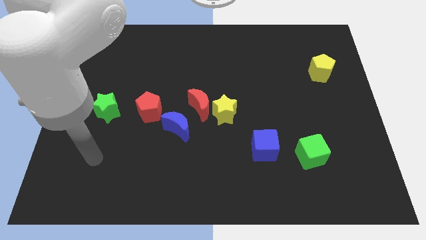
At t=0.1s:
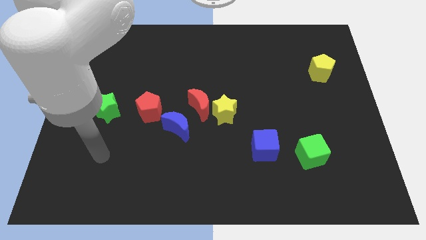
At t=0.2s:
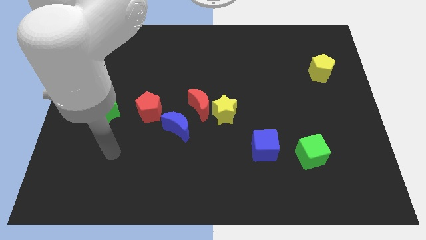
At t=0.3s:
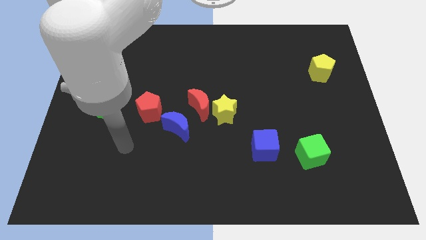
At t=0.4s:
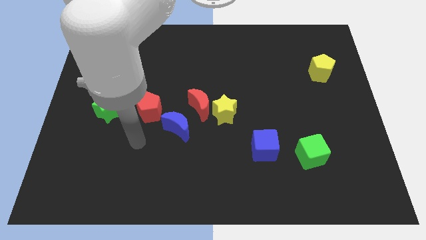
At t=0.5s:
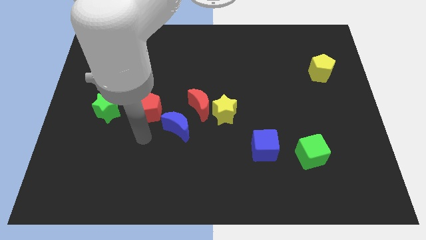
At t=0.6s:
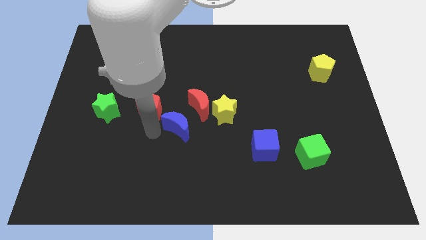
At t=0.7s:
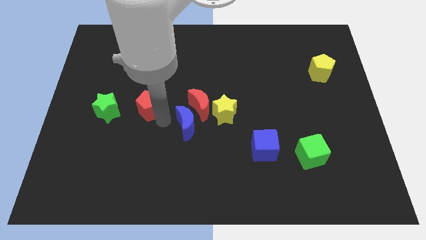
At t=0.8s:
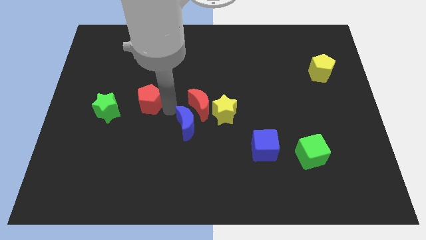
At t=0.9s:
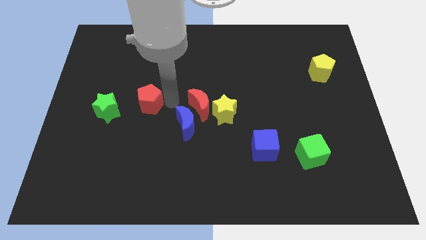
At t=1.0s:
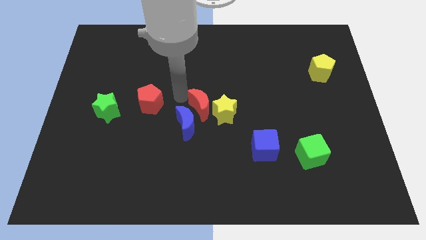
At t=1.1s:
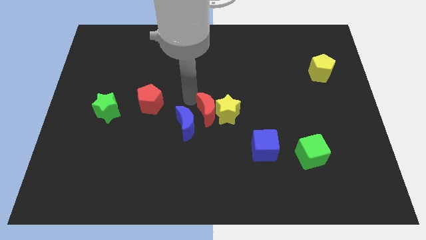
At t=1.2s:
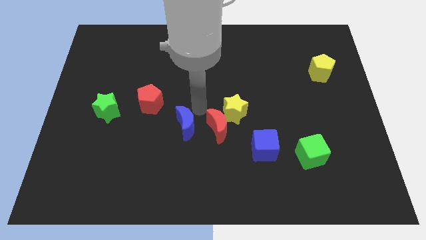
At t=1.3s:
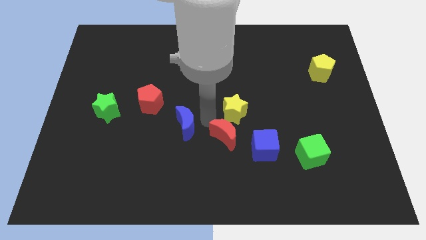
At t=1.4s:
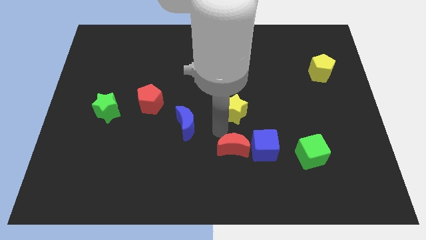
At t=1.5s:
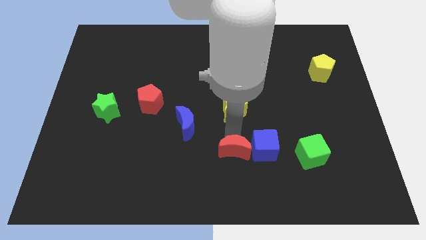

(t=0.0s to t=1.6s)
pull the yellow star apart from the red moon

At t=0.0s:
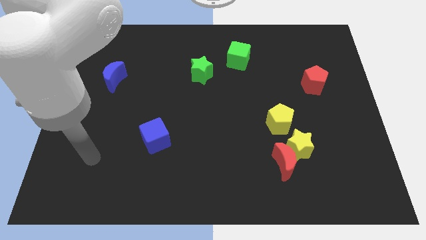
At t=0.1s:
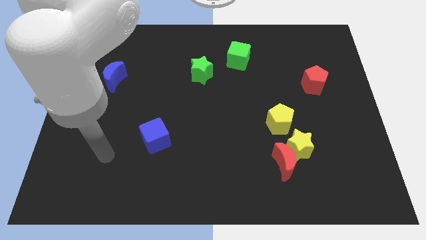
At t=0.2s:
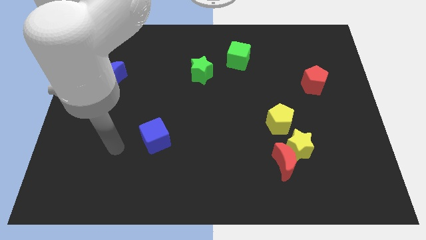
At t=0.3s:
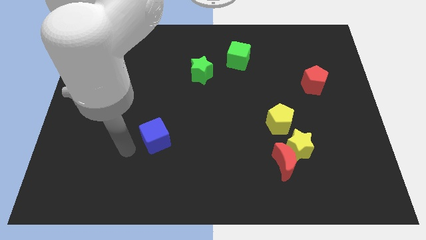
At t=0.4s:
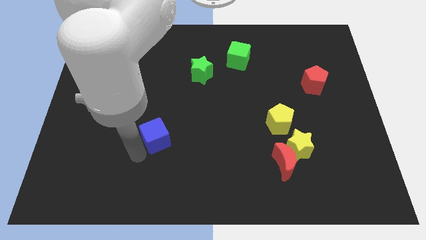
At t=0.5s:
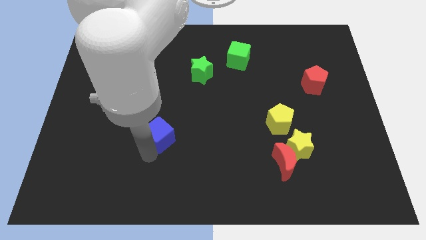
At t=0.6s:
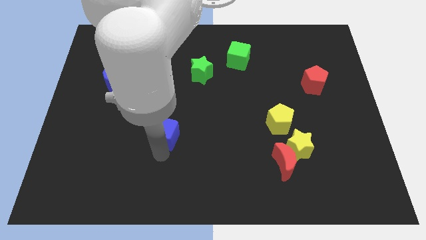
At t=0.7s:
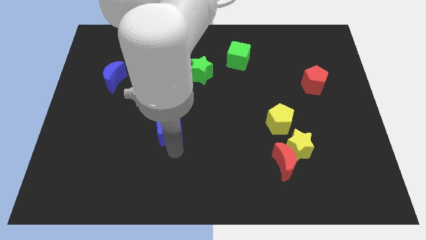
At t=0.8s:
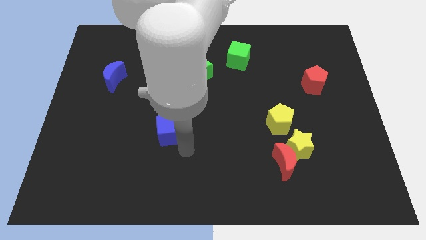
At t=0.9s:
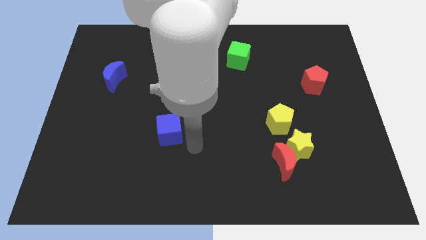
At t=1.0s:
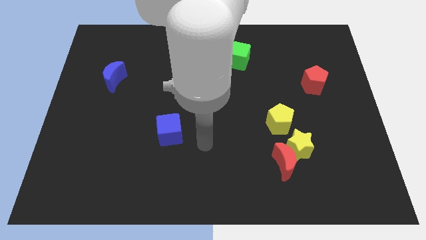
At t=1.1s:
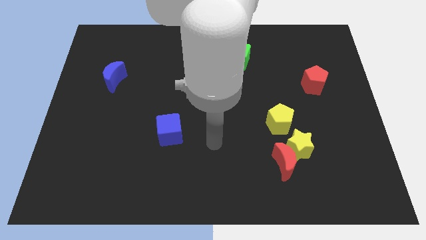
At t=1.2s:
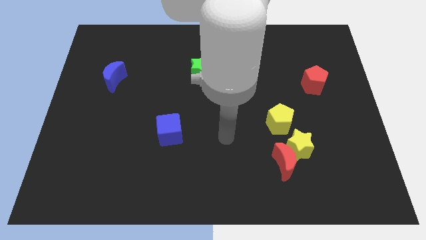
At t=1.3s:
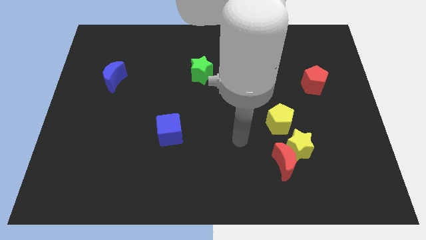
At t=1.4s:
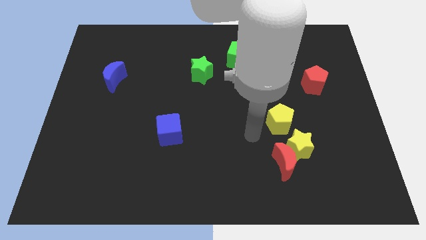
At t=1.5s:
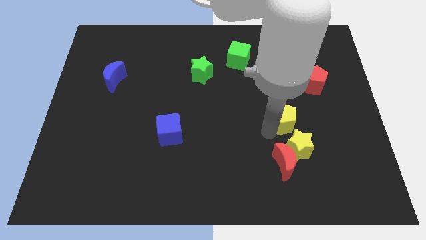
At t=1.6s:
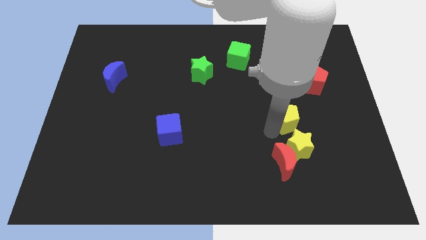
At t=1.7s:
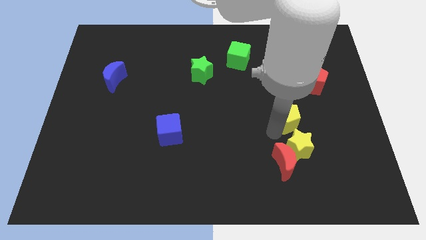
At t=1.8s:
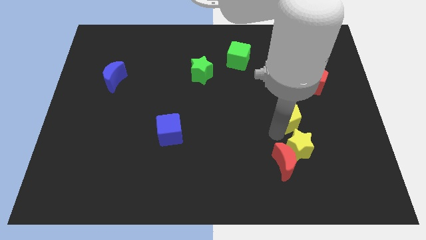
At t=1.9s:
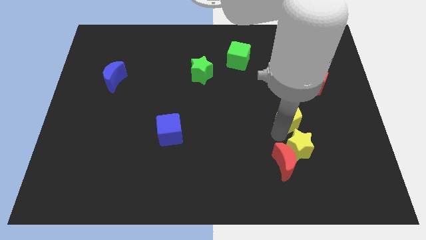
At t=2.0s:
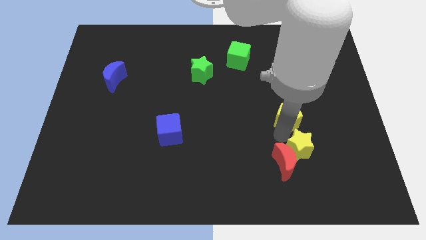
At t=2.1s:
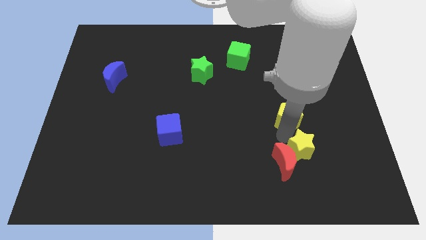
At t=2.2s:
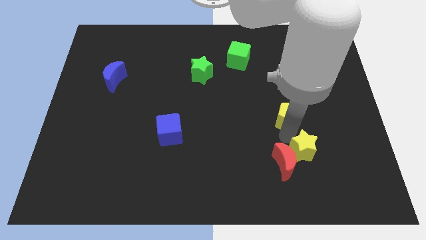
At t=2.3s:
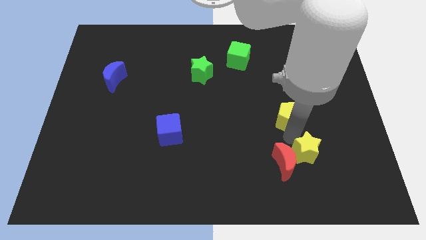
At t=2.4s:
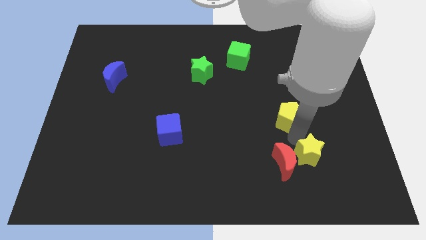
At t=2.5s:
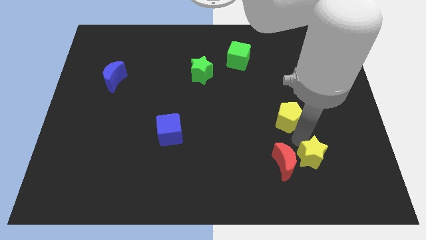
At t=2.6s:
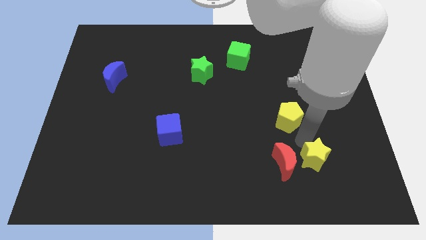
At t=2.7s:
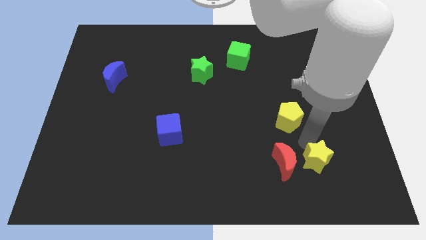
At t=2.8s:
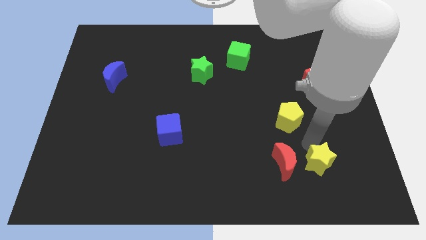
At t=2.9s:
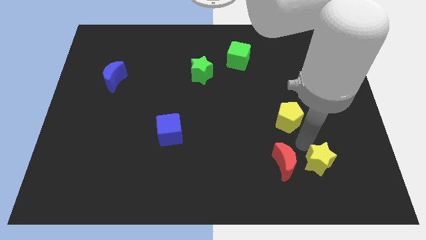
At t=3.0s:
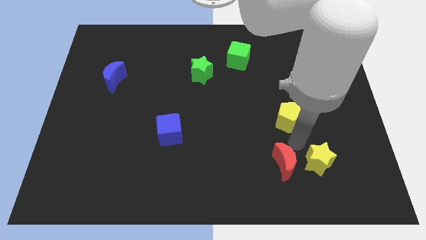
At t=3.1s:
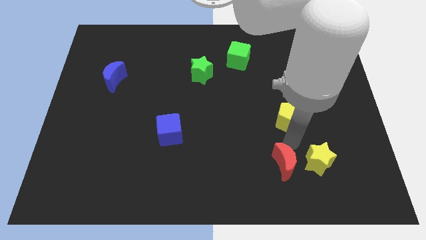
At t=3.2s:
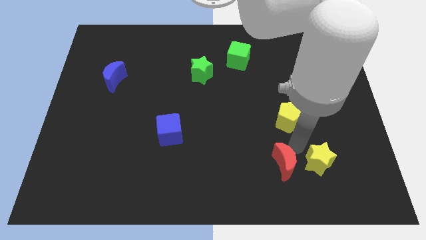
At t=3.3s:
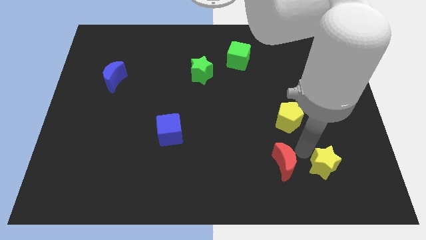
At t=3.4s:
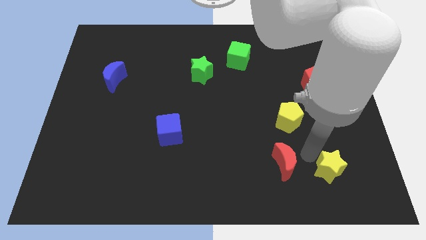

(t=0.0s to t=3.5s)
move the yellow star away from the red moon and yellow pentagon

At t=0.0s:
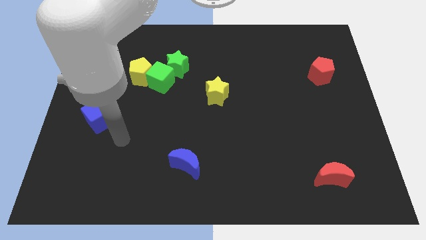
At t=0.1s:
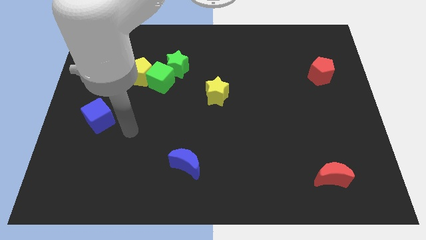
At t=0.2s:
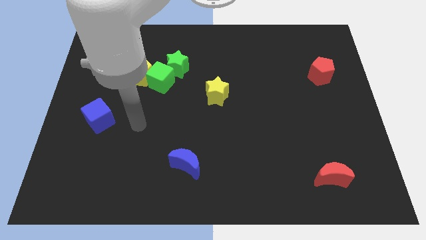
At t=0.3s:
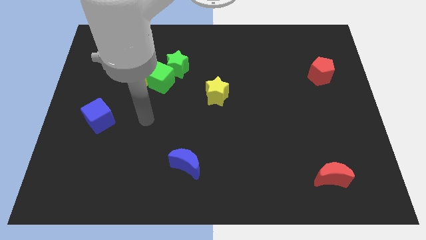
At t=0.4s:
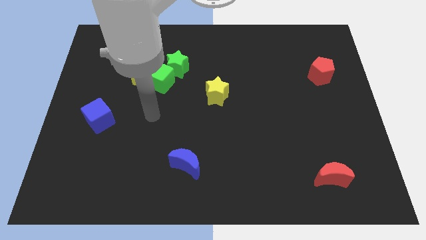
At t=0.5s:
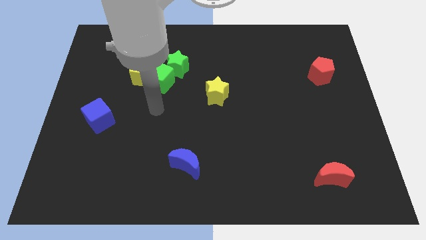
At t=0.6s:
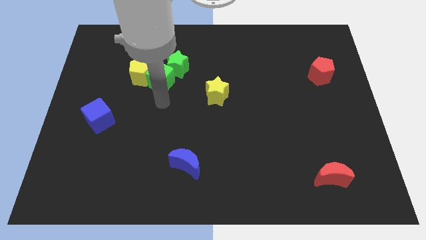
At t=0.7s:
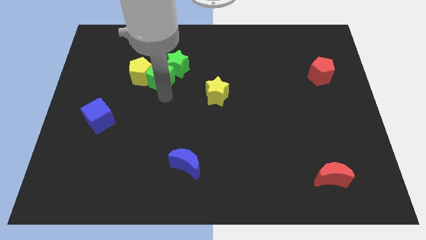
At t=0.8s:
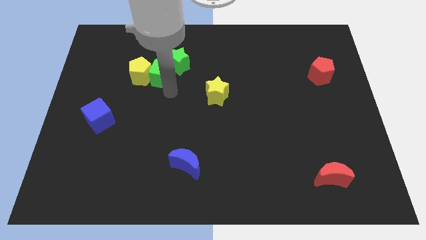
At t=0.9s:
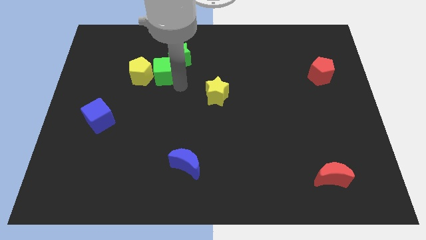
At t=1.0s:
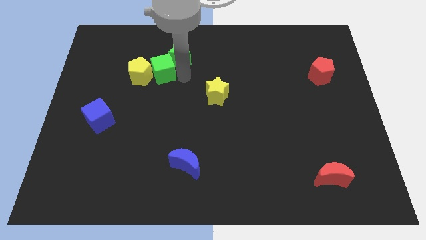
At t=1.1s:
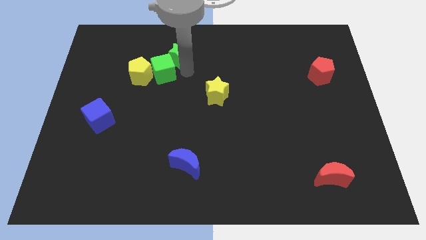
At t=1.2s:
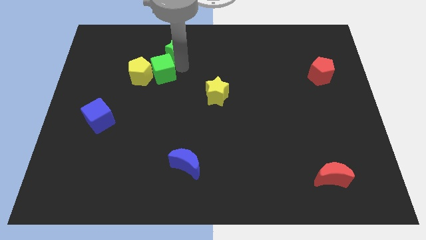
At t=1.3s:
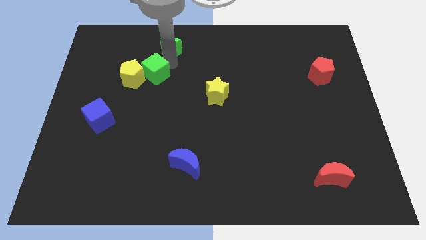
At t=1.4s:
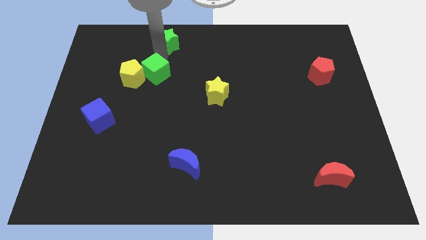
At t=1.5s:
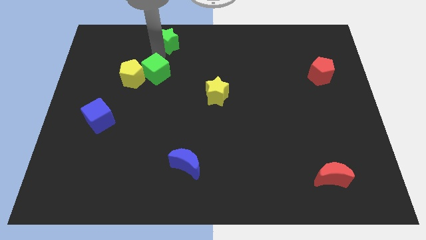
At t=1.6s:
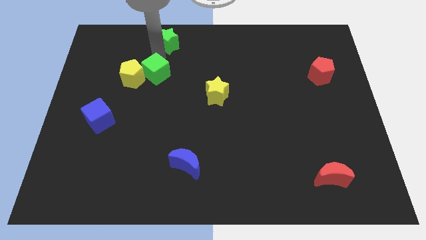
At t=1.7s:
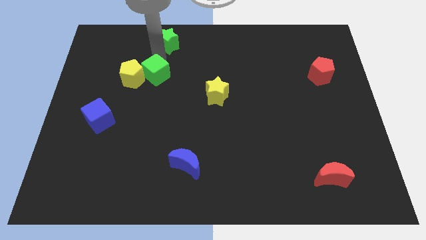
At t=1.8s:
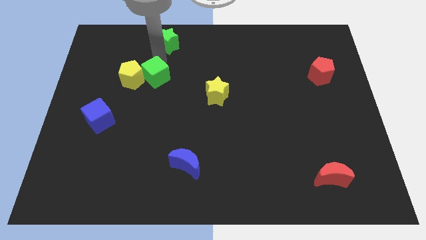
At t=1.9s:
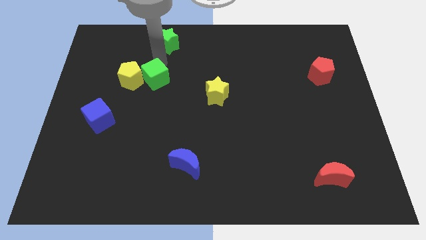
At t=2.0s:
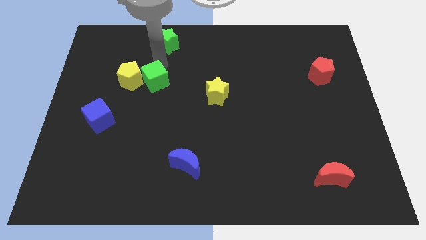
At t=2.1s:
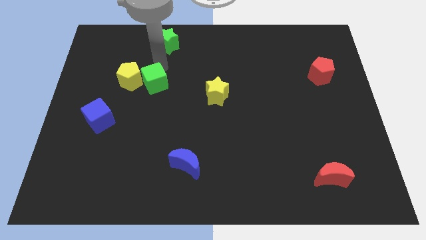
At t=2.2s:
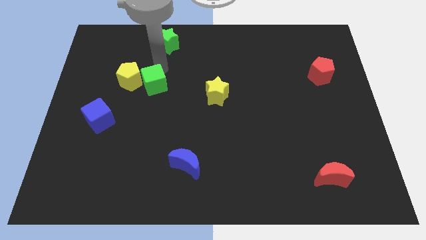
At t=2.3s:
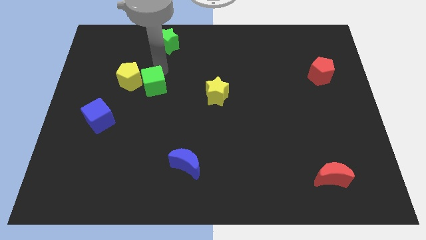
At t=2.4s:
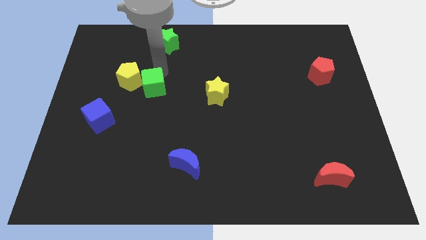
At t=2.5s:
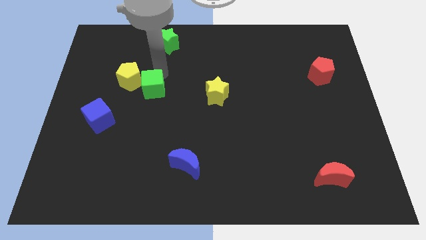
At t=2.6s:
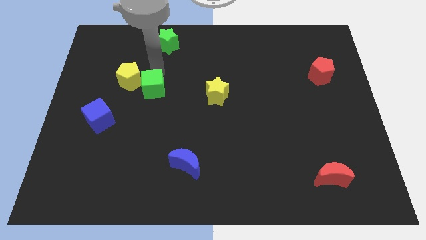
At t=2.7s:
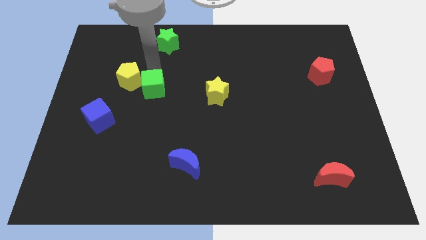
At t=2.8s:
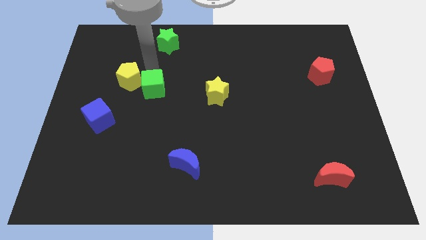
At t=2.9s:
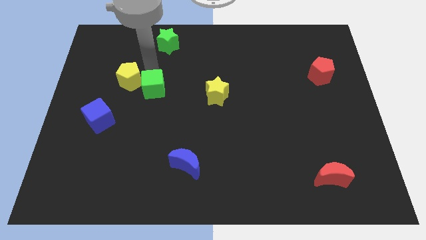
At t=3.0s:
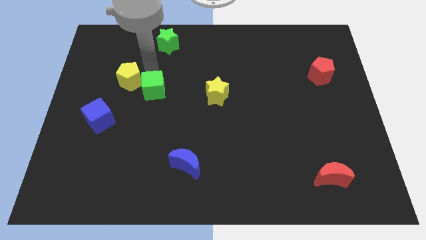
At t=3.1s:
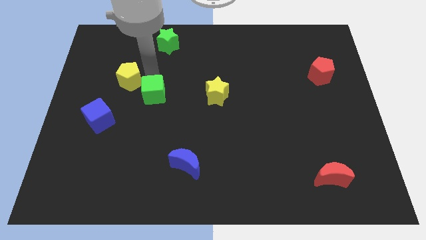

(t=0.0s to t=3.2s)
pull the green cube apart from the yellow pentagon and green star

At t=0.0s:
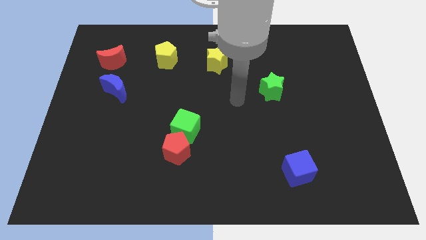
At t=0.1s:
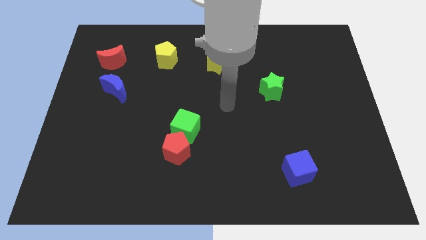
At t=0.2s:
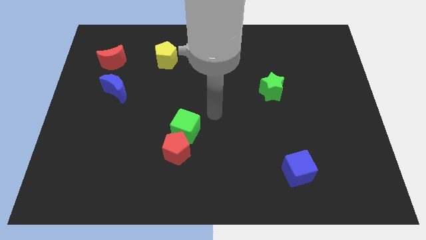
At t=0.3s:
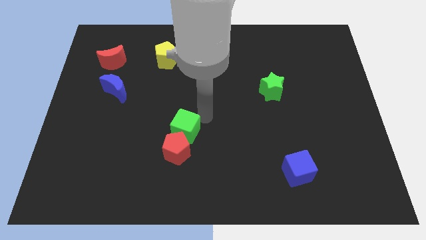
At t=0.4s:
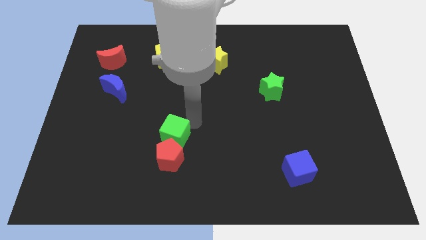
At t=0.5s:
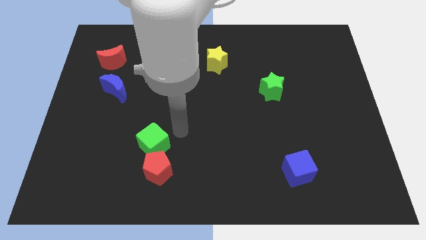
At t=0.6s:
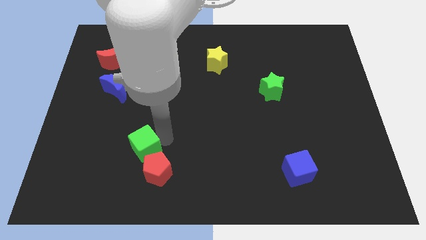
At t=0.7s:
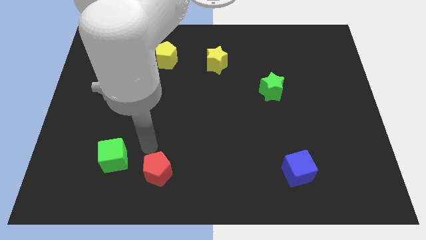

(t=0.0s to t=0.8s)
pull the red pentagon apart from the green cube

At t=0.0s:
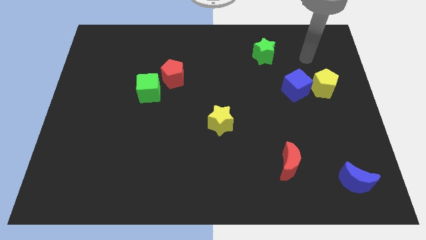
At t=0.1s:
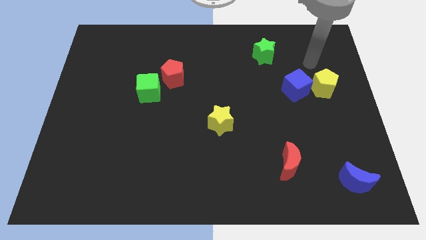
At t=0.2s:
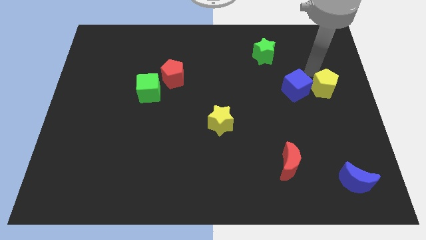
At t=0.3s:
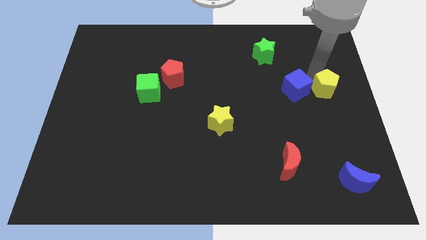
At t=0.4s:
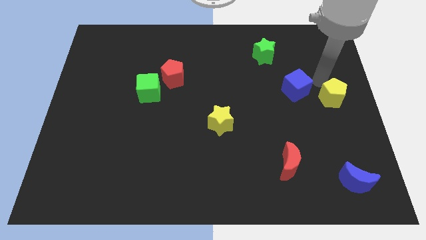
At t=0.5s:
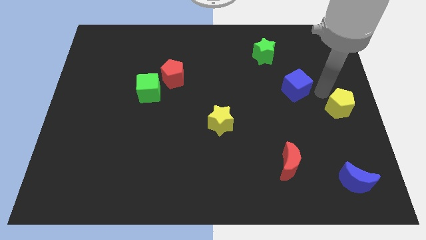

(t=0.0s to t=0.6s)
separate the blue cube from the yellow pentagon
